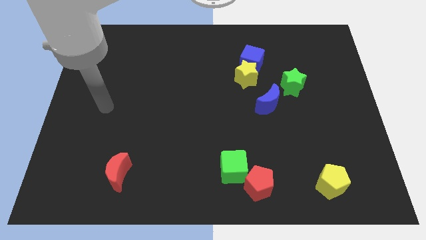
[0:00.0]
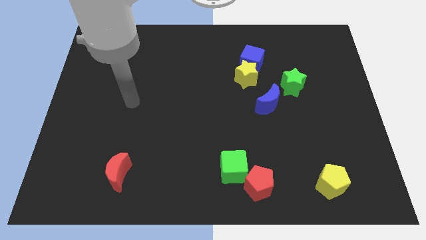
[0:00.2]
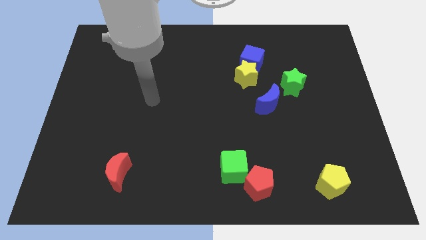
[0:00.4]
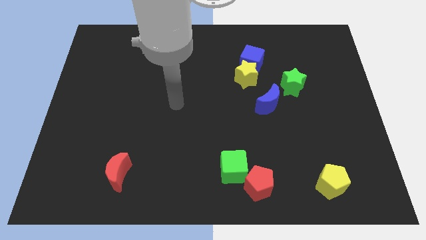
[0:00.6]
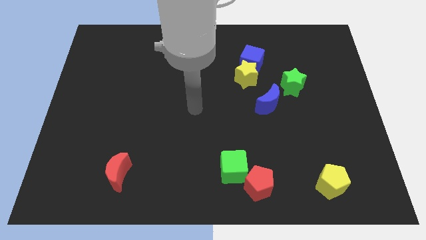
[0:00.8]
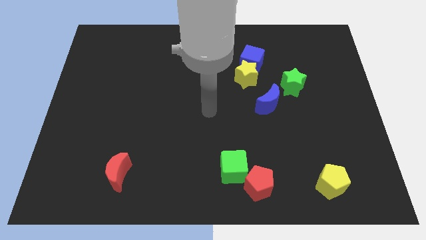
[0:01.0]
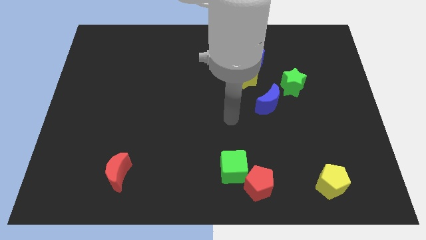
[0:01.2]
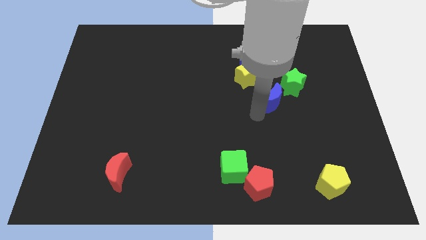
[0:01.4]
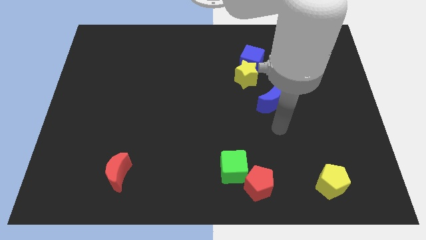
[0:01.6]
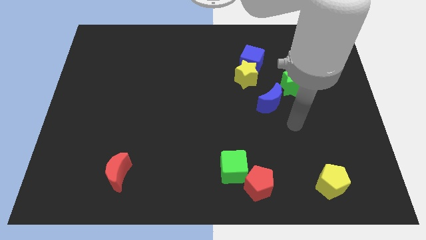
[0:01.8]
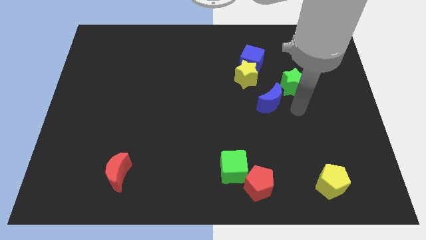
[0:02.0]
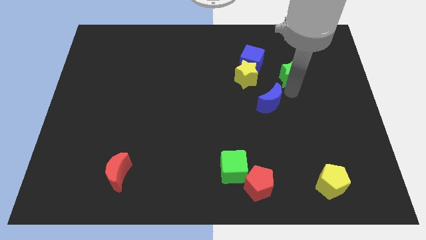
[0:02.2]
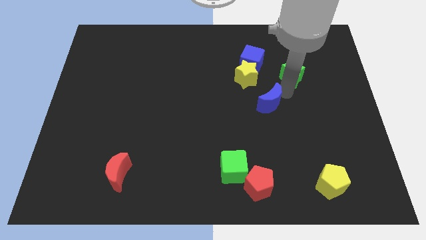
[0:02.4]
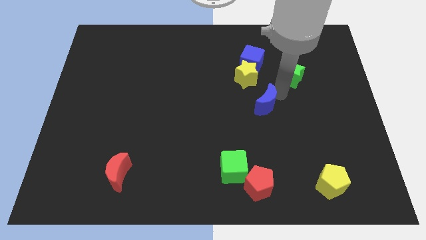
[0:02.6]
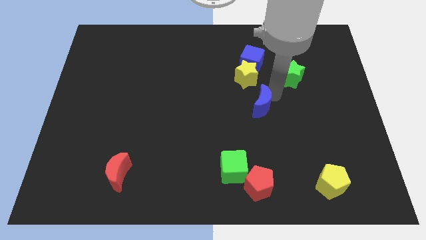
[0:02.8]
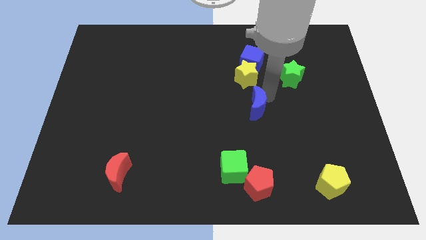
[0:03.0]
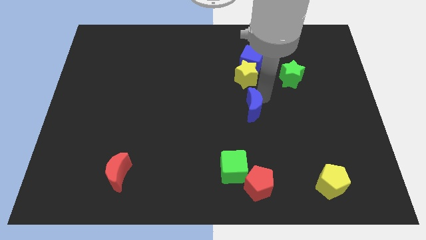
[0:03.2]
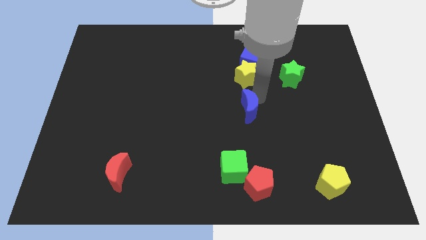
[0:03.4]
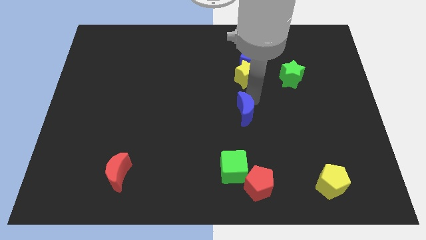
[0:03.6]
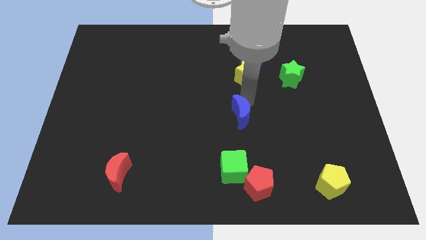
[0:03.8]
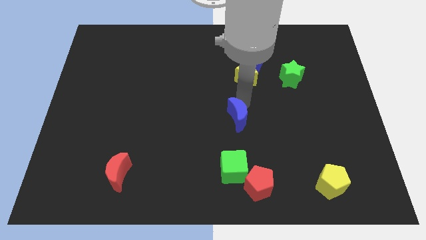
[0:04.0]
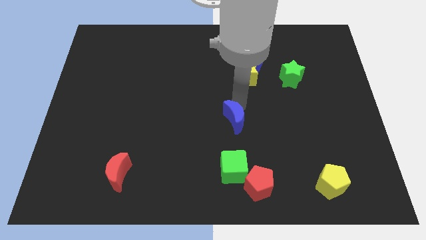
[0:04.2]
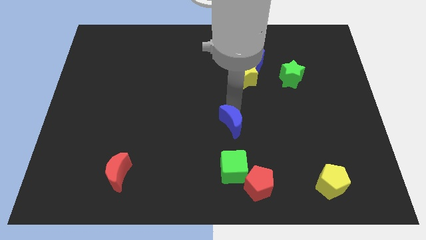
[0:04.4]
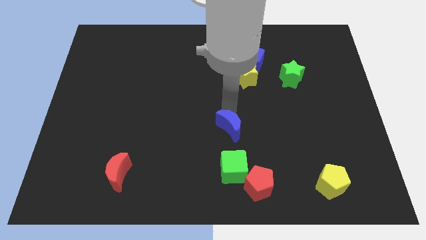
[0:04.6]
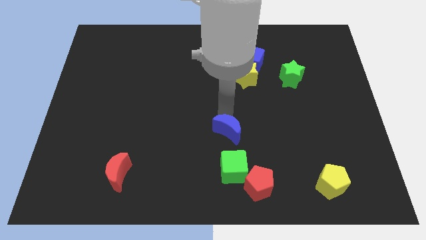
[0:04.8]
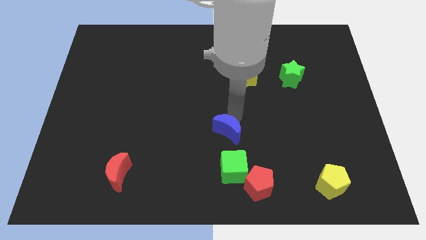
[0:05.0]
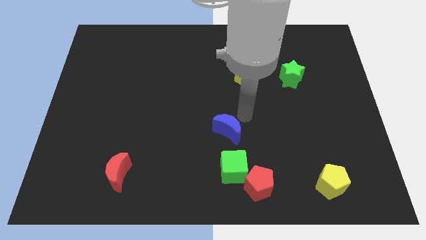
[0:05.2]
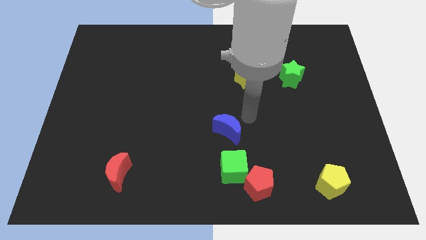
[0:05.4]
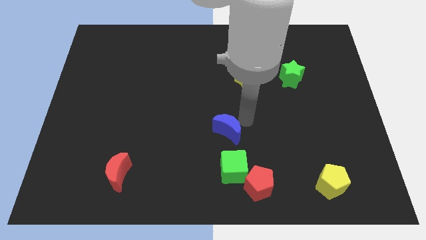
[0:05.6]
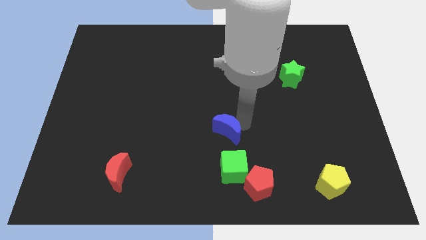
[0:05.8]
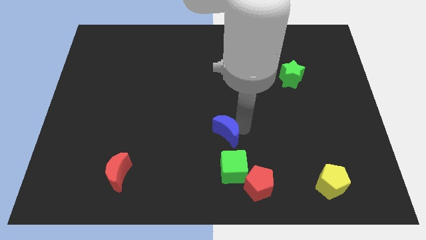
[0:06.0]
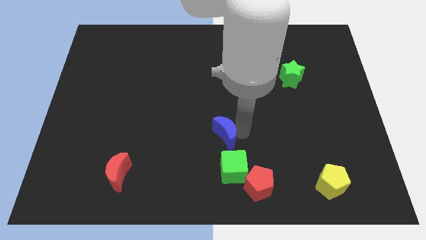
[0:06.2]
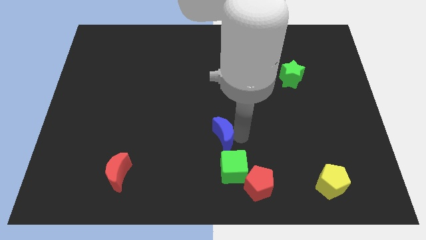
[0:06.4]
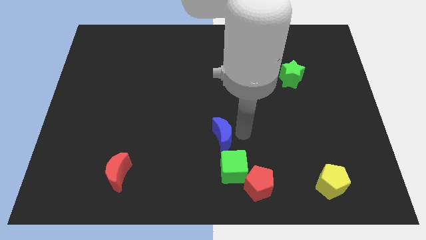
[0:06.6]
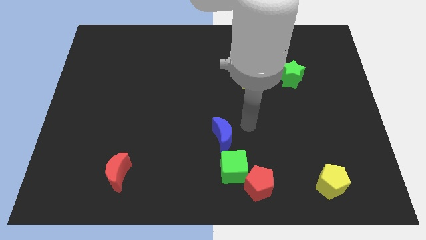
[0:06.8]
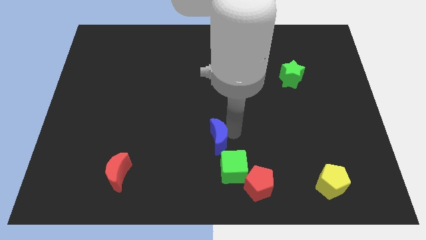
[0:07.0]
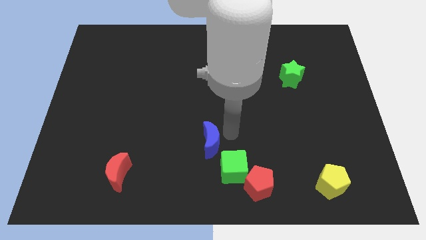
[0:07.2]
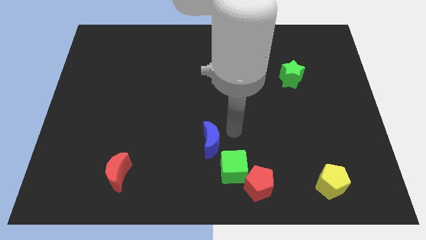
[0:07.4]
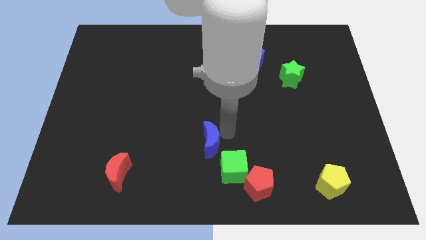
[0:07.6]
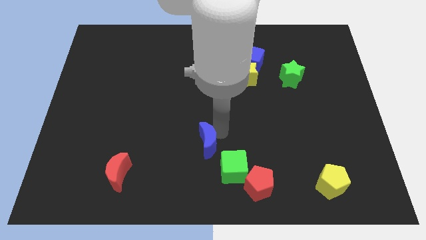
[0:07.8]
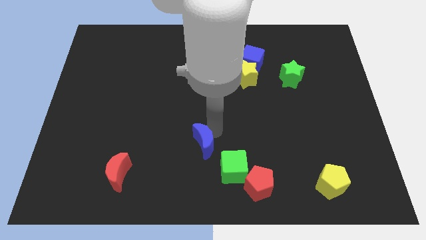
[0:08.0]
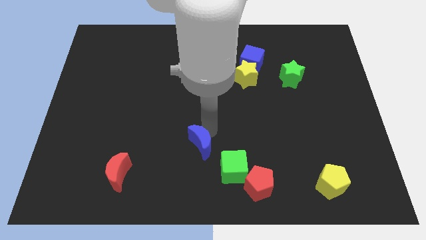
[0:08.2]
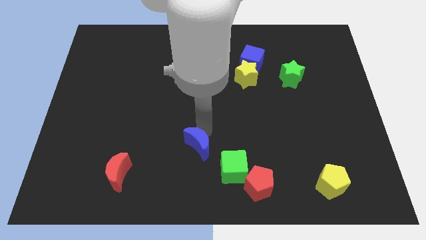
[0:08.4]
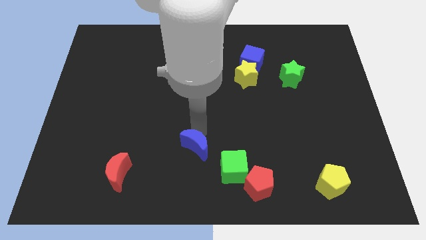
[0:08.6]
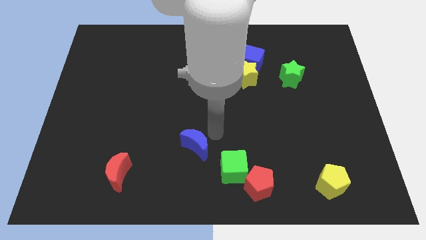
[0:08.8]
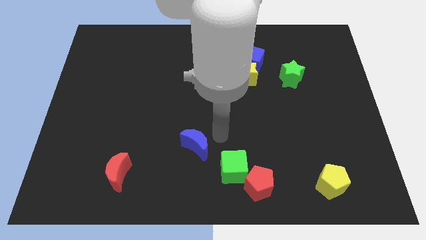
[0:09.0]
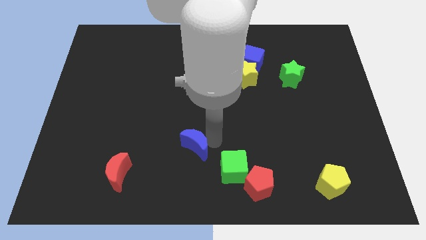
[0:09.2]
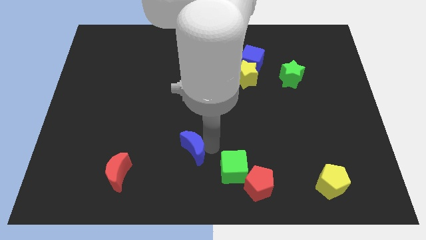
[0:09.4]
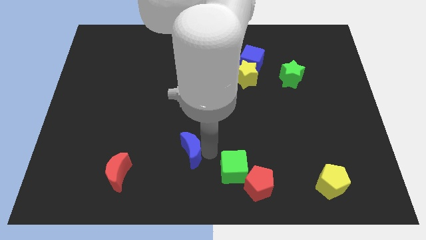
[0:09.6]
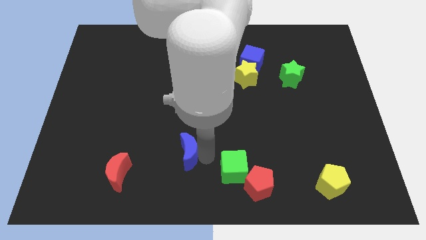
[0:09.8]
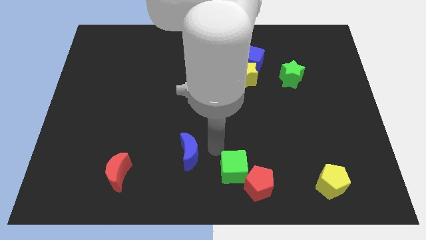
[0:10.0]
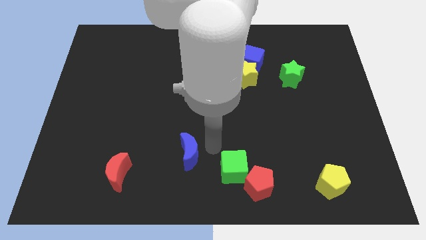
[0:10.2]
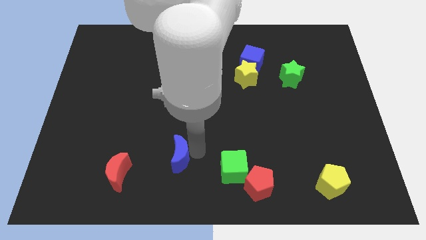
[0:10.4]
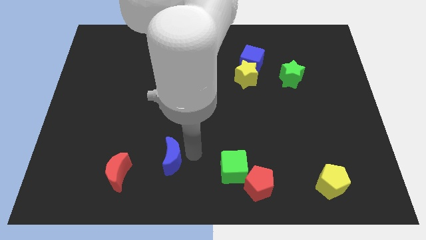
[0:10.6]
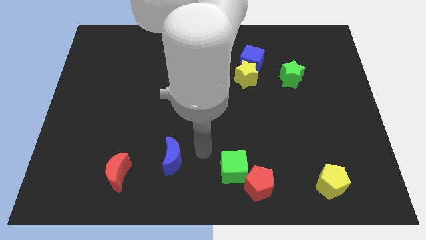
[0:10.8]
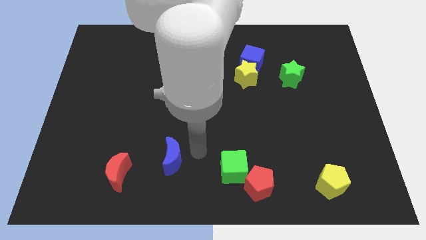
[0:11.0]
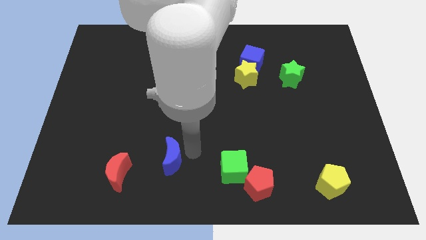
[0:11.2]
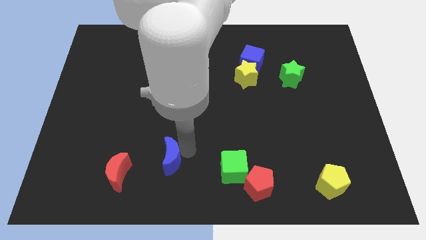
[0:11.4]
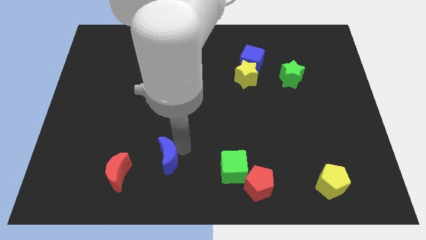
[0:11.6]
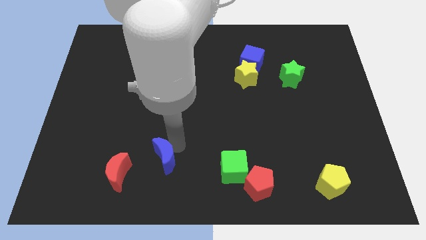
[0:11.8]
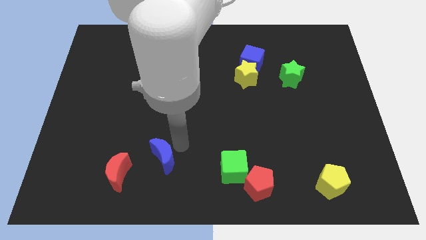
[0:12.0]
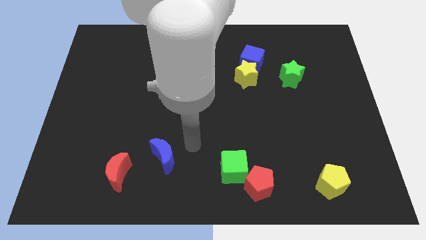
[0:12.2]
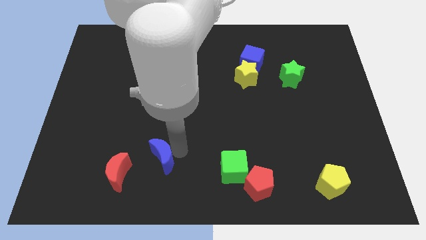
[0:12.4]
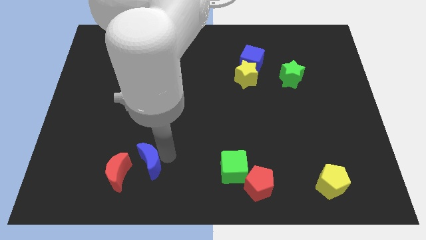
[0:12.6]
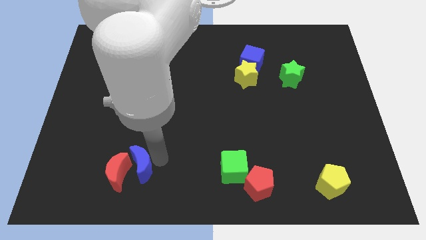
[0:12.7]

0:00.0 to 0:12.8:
move the blue moon towards the red moon
